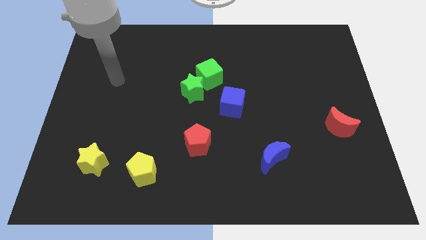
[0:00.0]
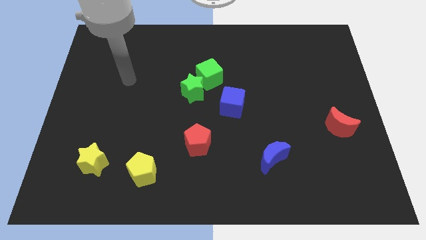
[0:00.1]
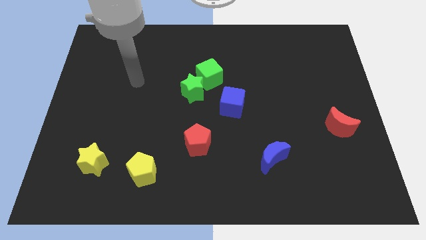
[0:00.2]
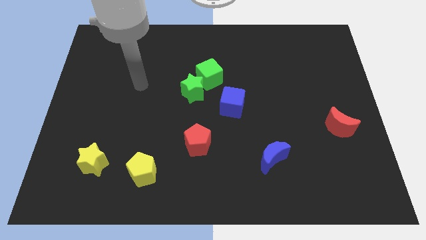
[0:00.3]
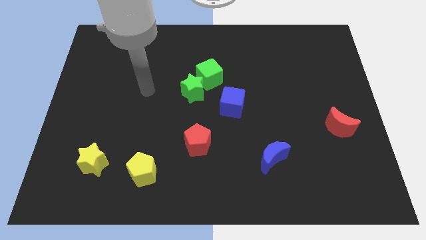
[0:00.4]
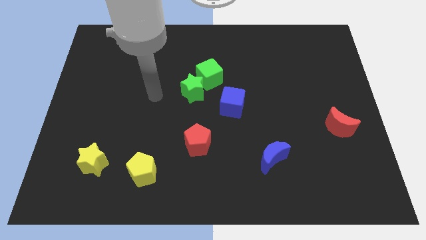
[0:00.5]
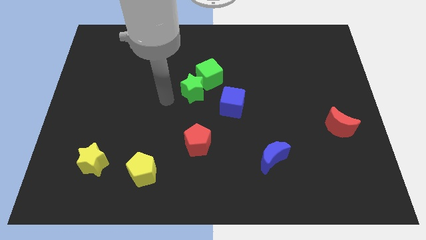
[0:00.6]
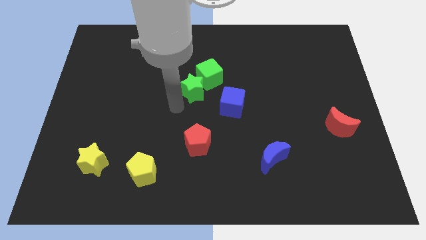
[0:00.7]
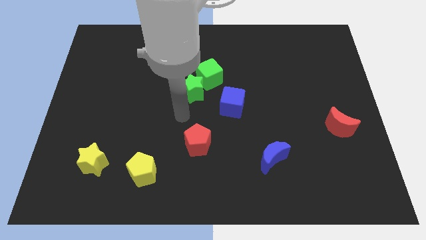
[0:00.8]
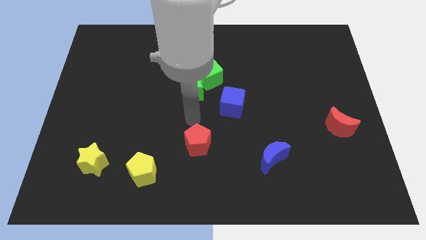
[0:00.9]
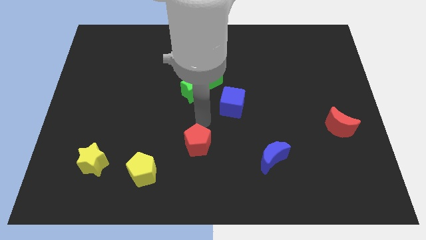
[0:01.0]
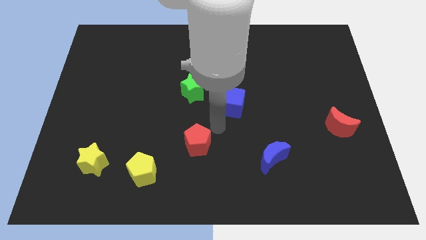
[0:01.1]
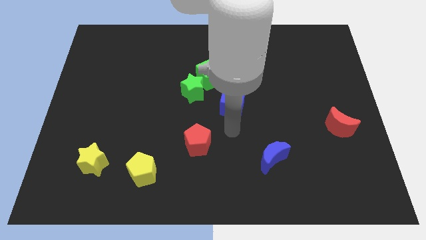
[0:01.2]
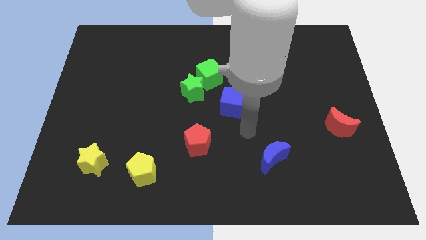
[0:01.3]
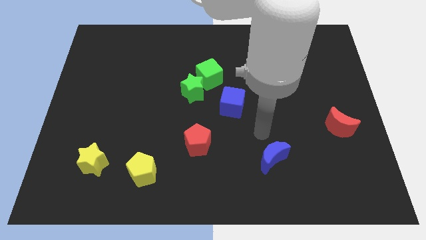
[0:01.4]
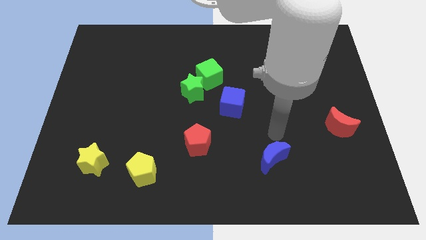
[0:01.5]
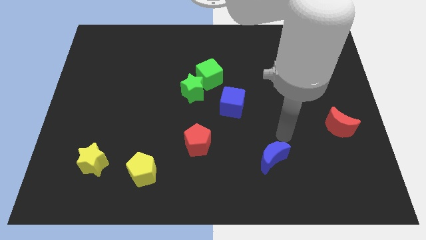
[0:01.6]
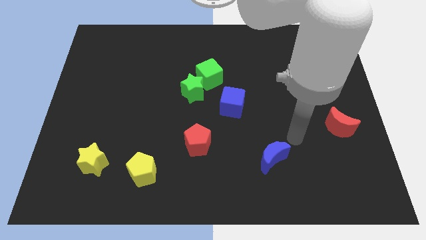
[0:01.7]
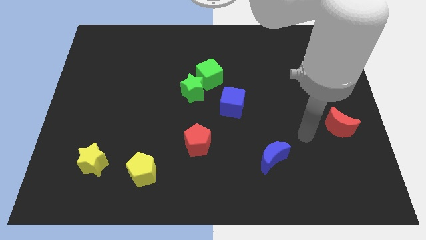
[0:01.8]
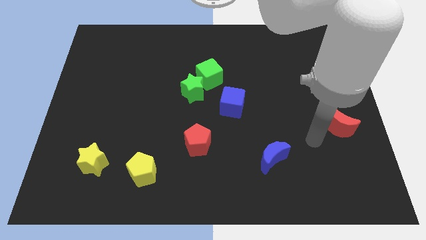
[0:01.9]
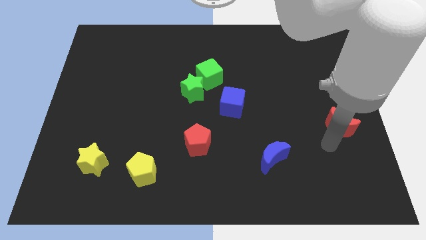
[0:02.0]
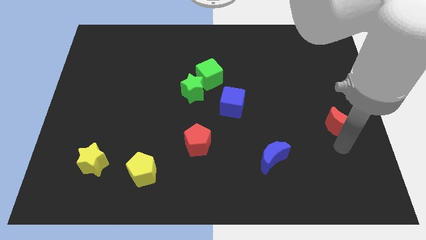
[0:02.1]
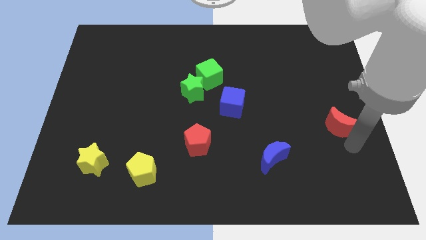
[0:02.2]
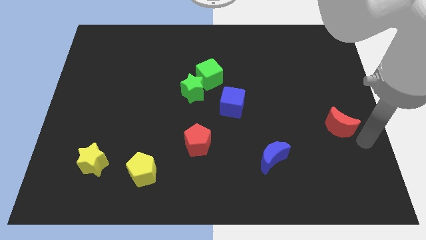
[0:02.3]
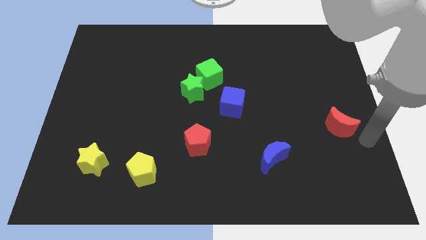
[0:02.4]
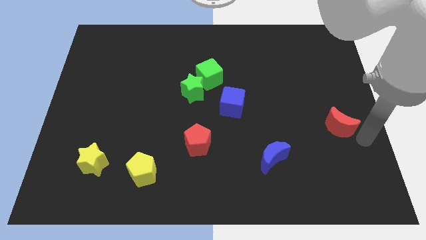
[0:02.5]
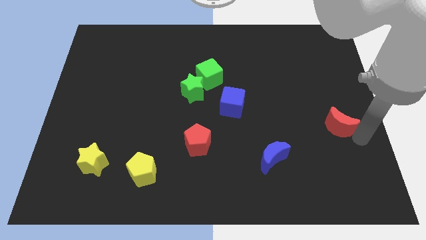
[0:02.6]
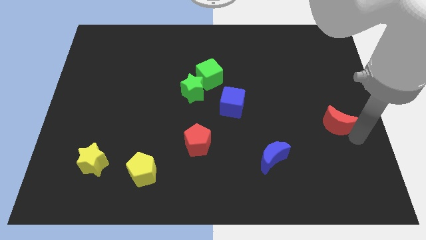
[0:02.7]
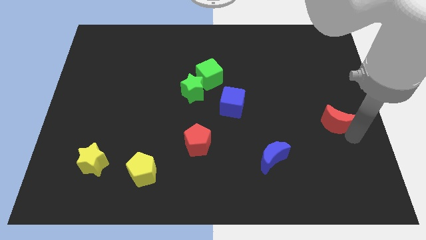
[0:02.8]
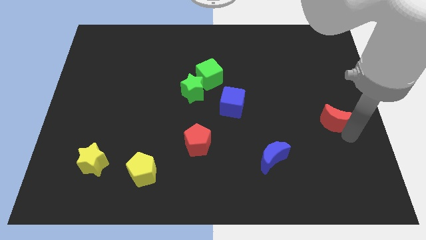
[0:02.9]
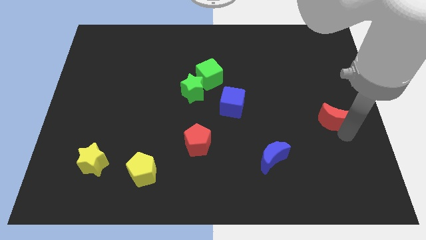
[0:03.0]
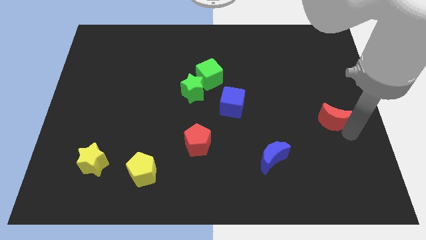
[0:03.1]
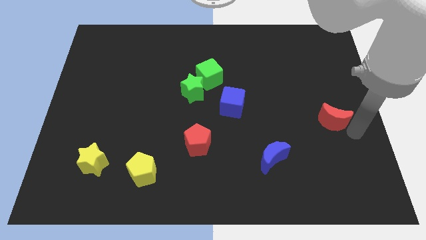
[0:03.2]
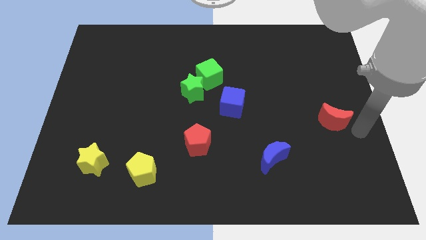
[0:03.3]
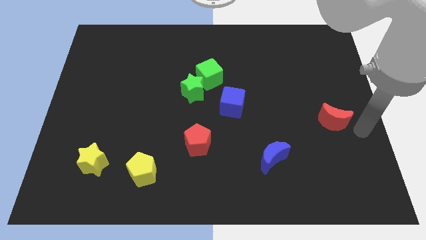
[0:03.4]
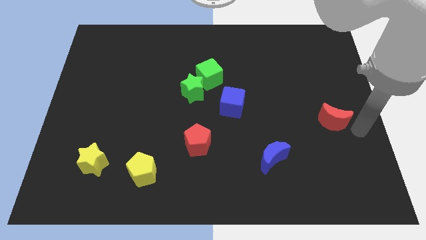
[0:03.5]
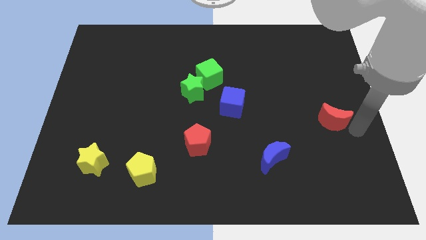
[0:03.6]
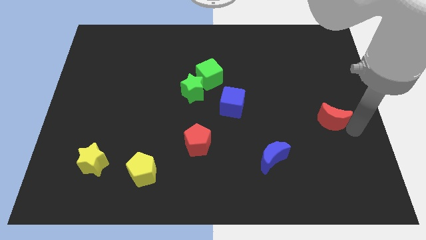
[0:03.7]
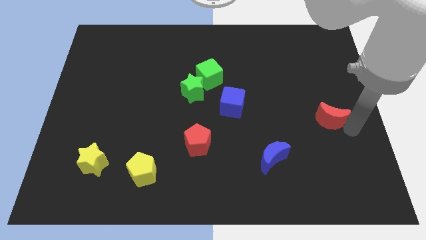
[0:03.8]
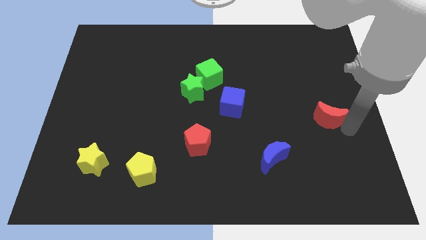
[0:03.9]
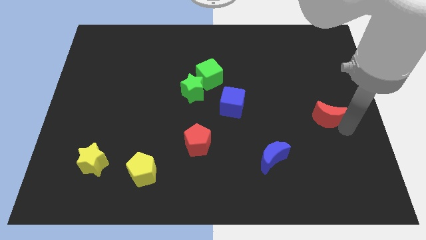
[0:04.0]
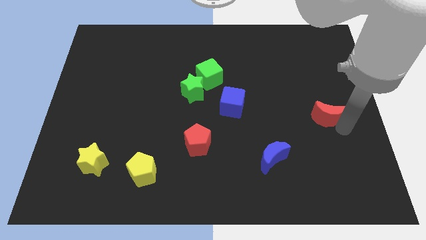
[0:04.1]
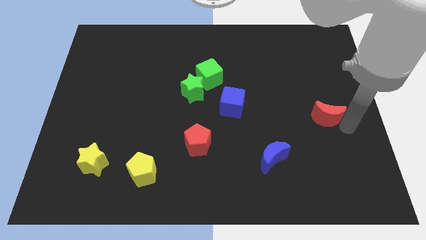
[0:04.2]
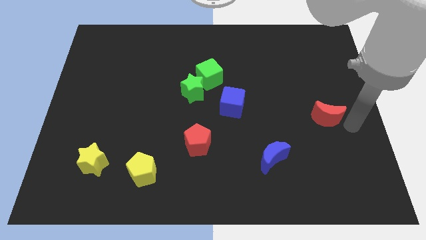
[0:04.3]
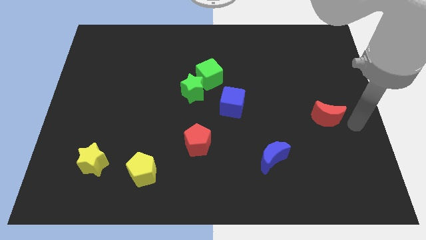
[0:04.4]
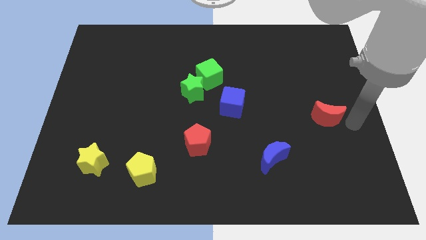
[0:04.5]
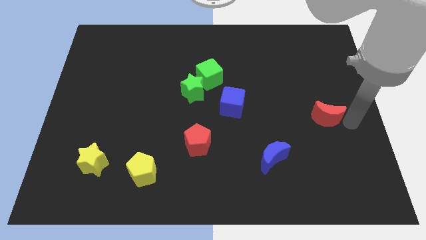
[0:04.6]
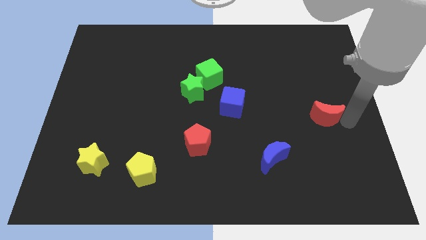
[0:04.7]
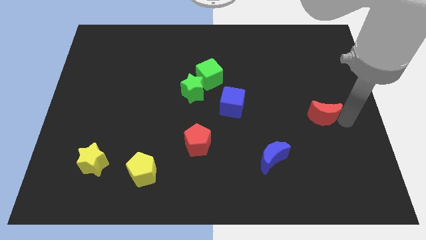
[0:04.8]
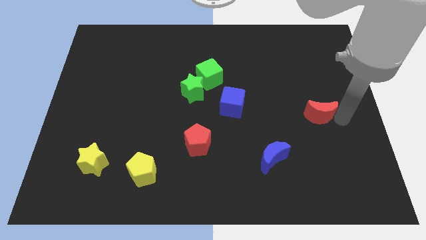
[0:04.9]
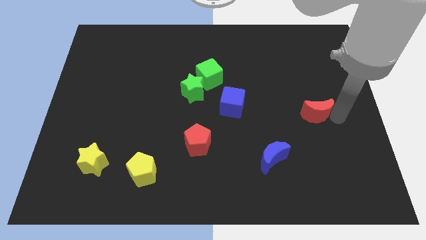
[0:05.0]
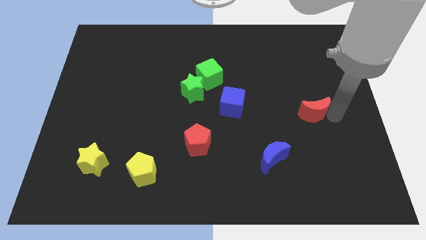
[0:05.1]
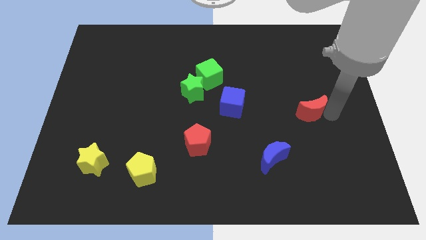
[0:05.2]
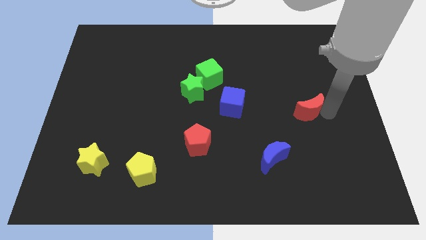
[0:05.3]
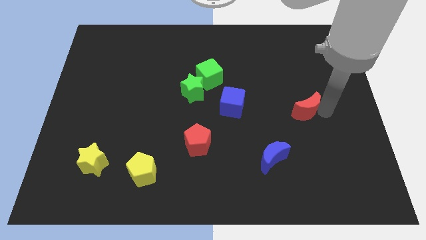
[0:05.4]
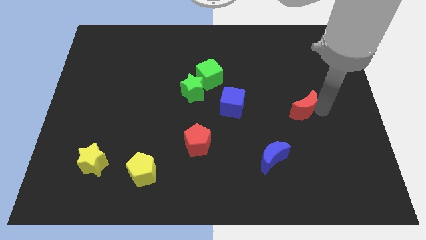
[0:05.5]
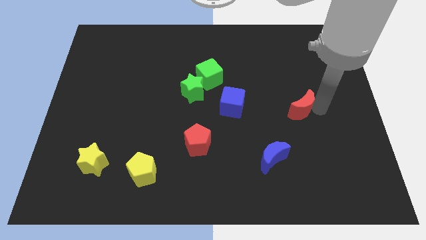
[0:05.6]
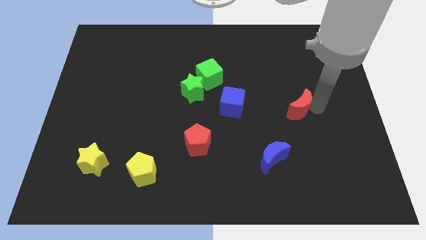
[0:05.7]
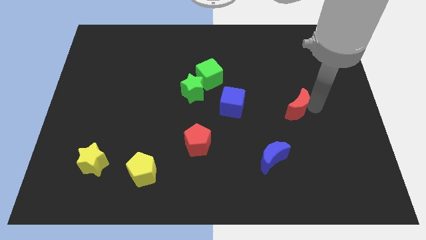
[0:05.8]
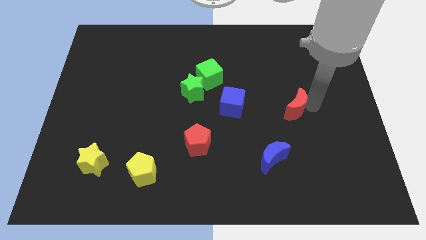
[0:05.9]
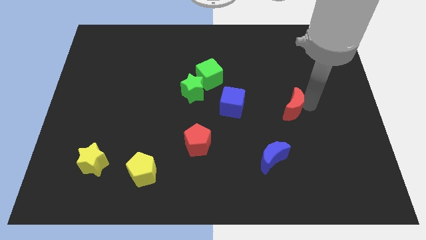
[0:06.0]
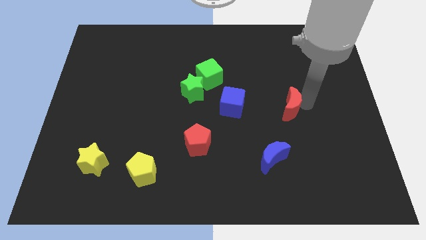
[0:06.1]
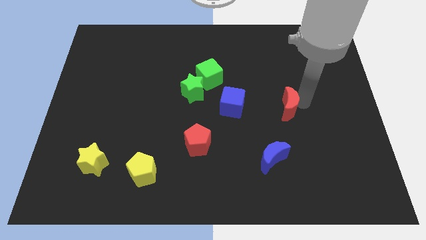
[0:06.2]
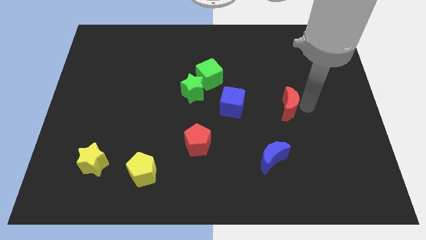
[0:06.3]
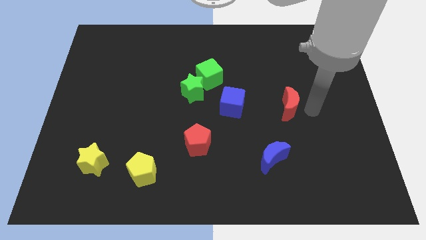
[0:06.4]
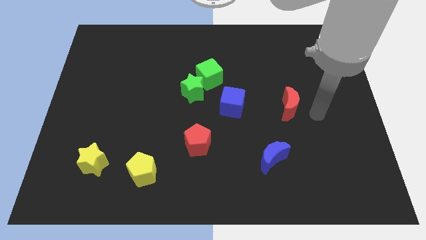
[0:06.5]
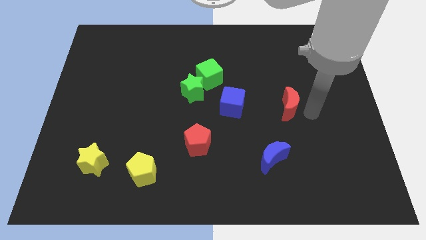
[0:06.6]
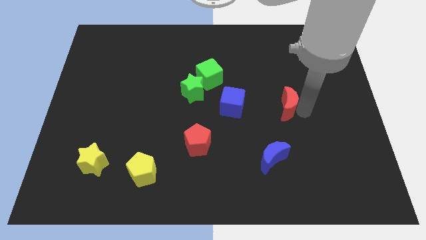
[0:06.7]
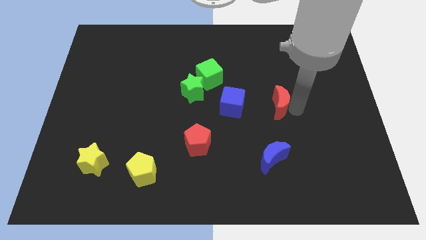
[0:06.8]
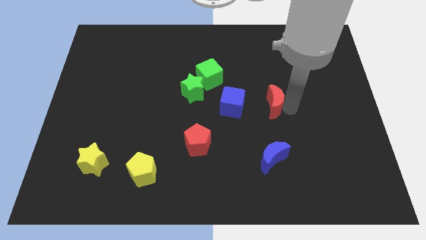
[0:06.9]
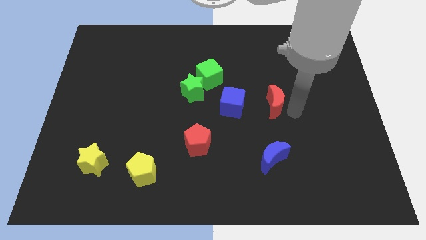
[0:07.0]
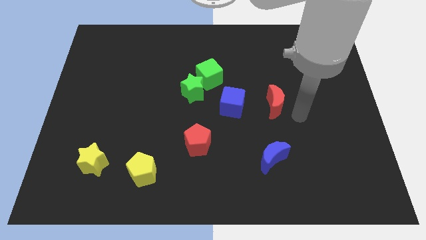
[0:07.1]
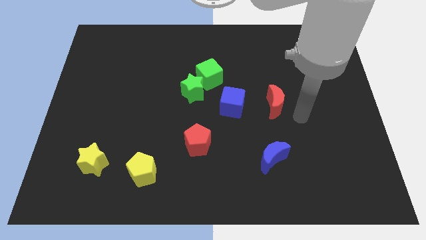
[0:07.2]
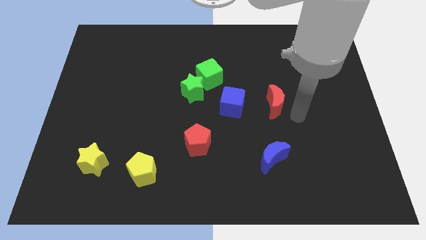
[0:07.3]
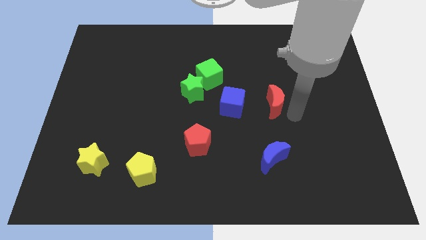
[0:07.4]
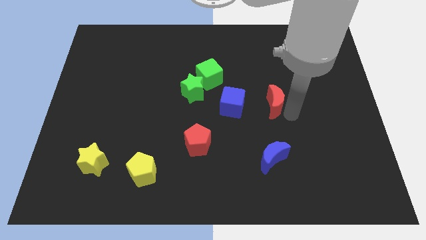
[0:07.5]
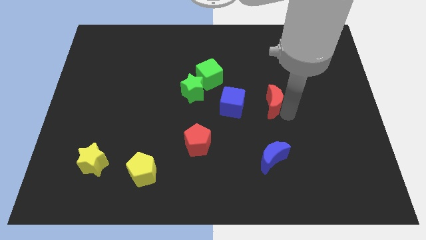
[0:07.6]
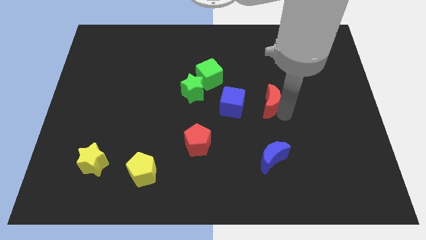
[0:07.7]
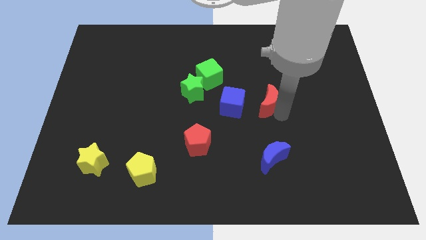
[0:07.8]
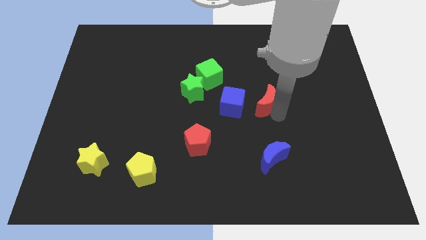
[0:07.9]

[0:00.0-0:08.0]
slide the red moon to the center
